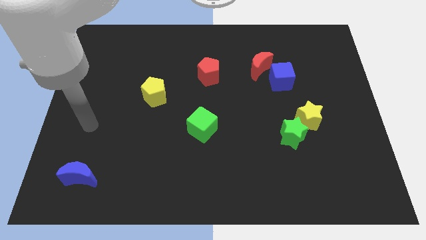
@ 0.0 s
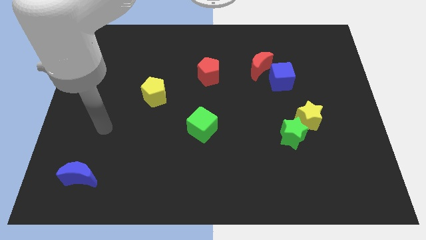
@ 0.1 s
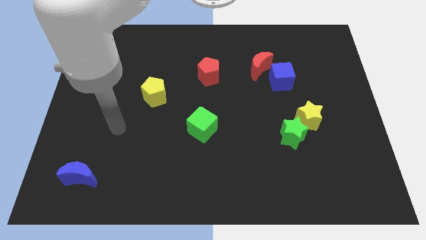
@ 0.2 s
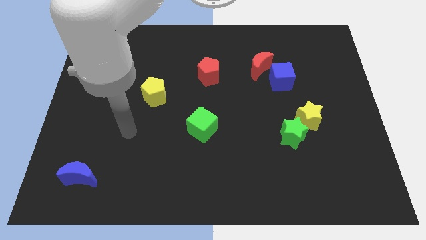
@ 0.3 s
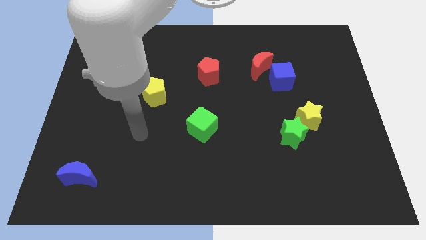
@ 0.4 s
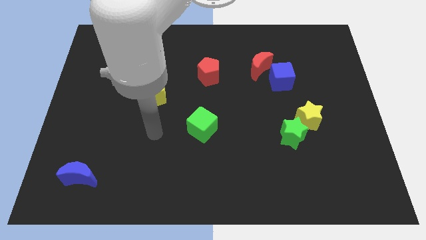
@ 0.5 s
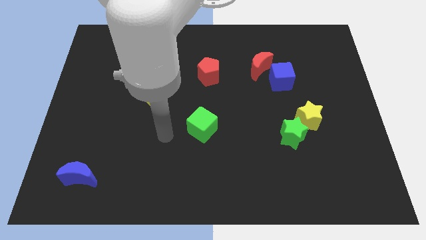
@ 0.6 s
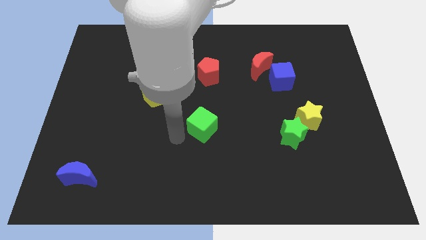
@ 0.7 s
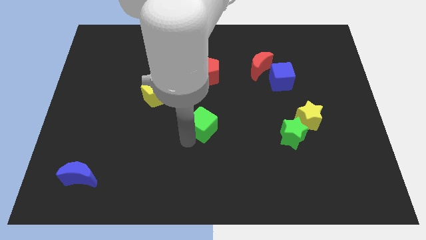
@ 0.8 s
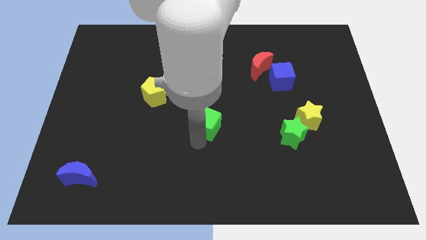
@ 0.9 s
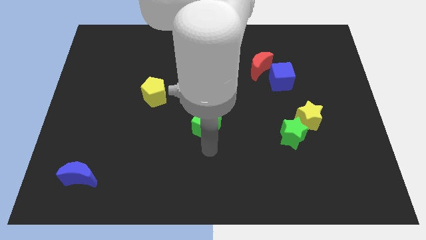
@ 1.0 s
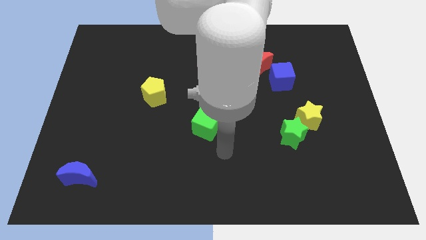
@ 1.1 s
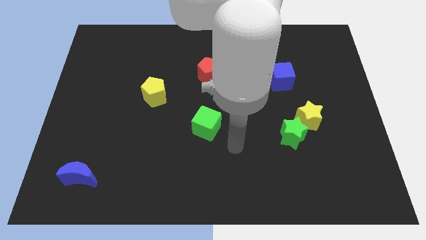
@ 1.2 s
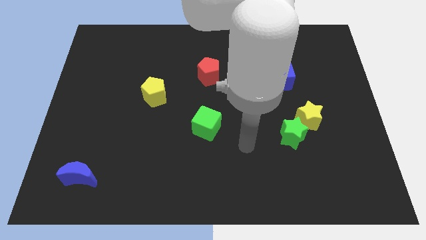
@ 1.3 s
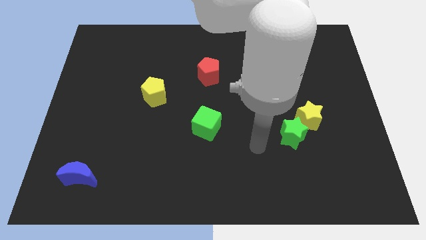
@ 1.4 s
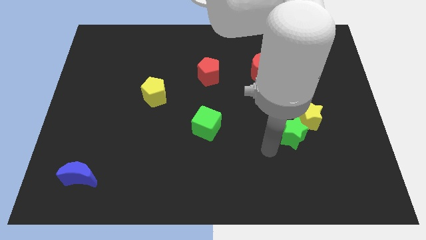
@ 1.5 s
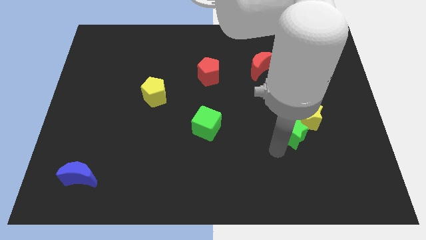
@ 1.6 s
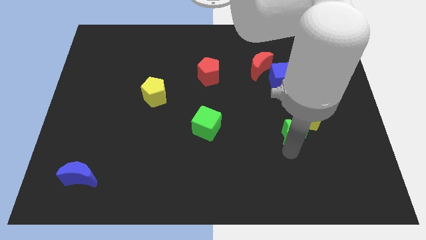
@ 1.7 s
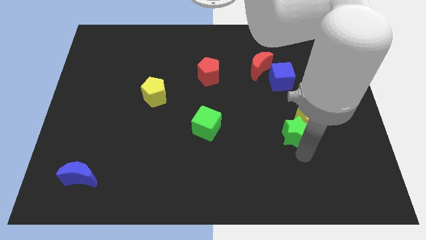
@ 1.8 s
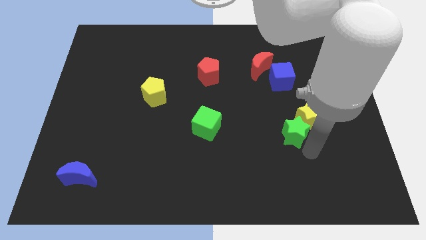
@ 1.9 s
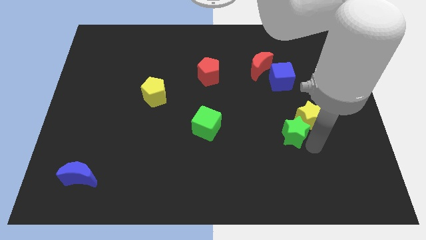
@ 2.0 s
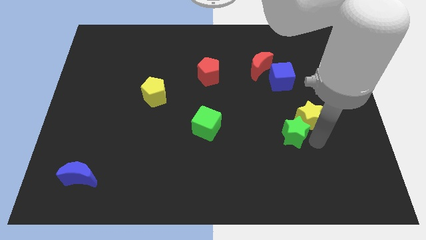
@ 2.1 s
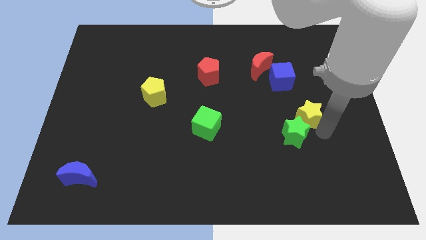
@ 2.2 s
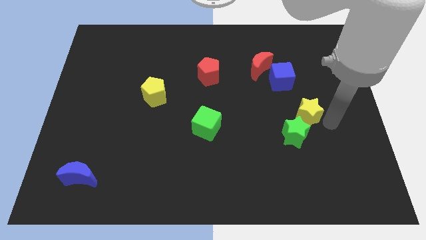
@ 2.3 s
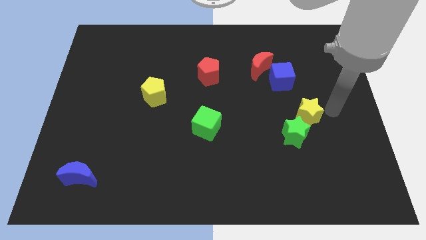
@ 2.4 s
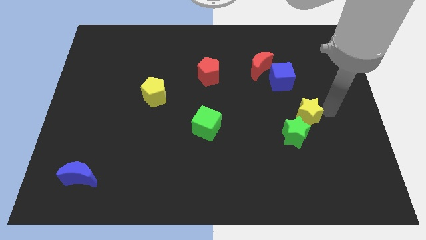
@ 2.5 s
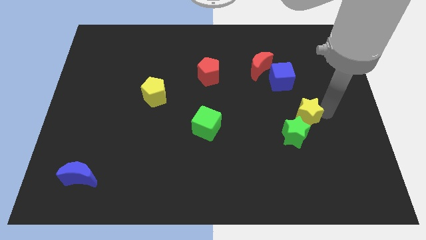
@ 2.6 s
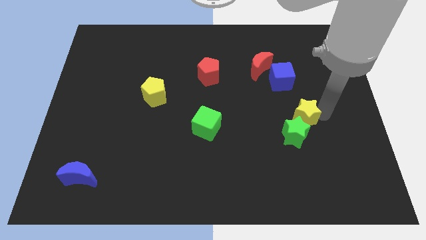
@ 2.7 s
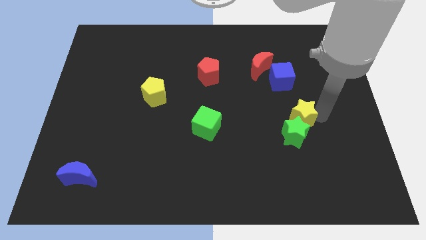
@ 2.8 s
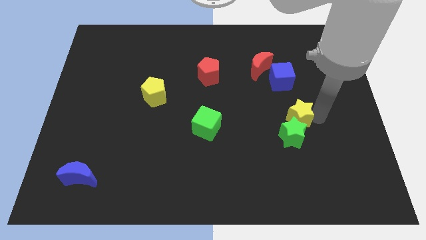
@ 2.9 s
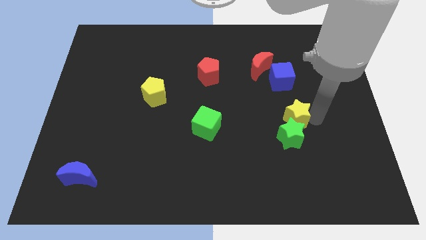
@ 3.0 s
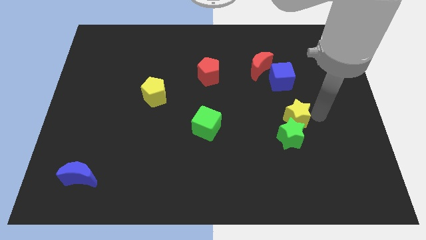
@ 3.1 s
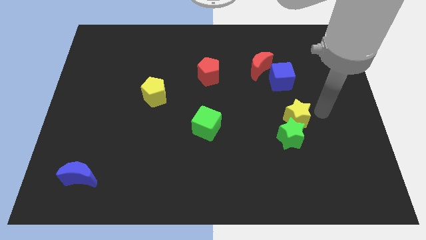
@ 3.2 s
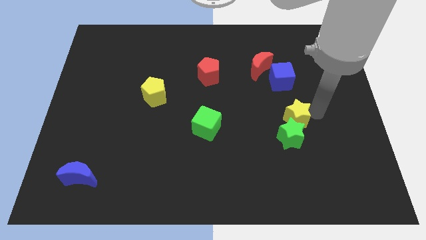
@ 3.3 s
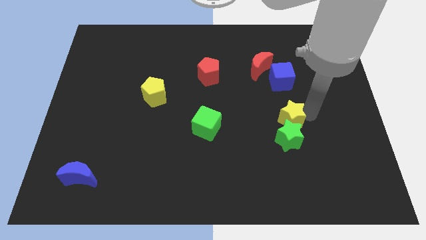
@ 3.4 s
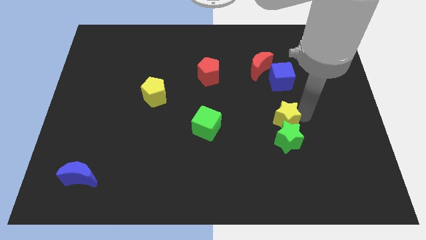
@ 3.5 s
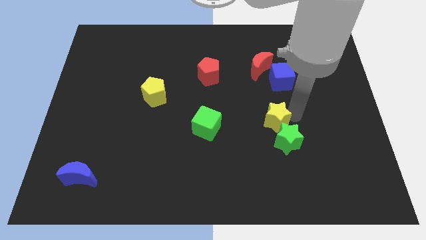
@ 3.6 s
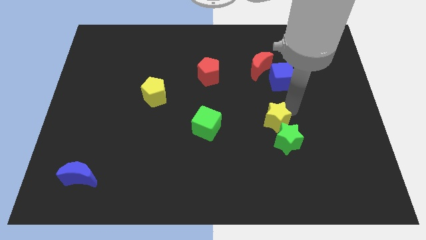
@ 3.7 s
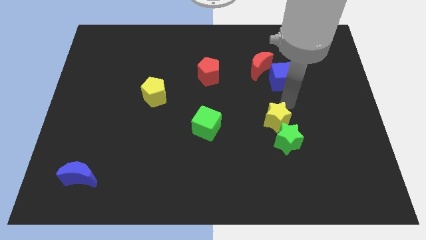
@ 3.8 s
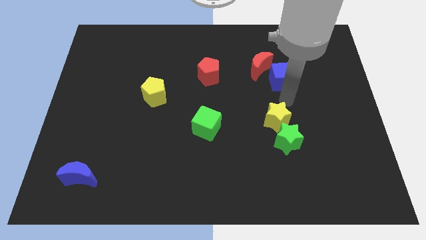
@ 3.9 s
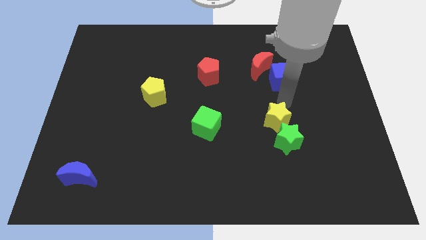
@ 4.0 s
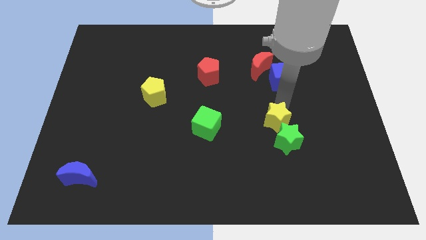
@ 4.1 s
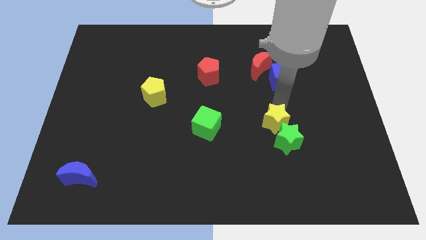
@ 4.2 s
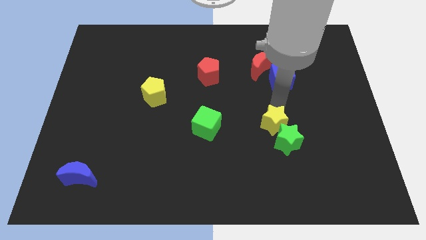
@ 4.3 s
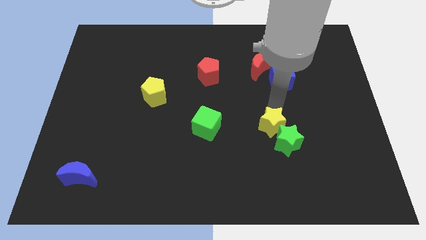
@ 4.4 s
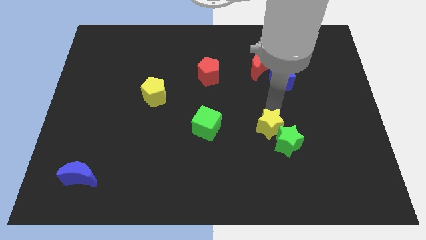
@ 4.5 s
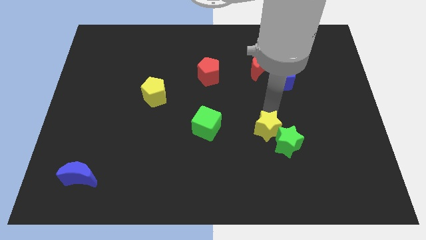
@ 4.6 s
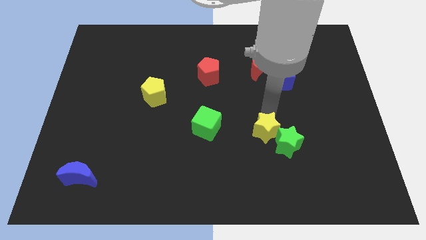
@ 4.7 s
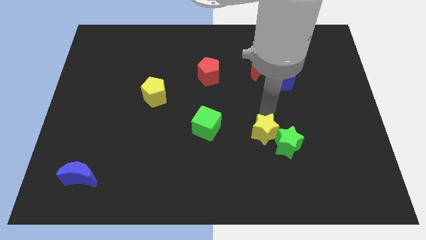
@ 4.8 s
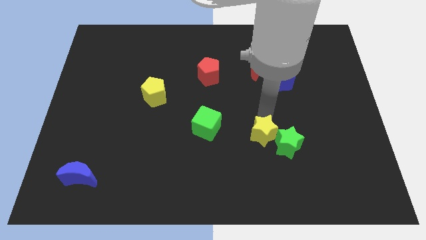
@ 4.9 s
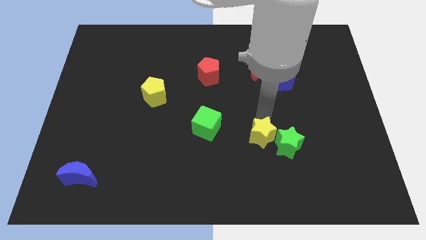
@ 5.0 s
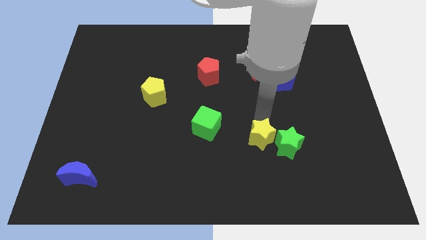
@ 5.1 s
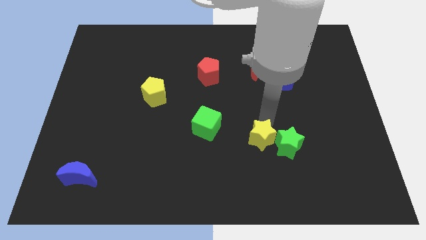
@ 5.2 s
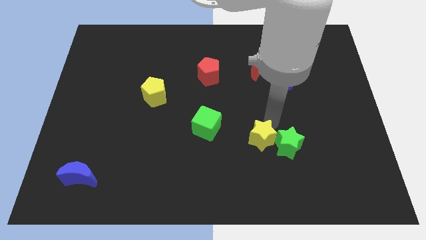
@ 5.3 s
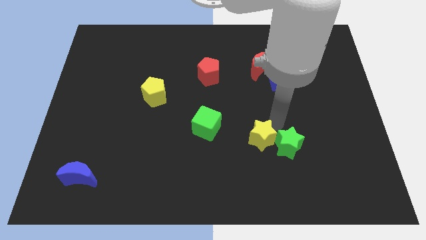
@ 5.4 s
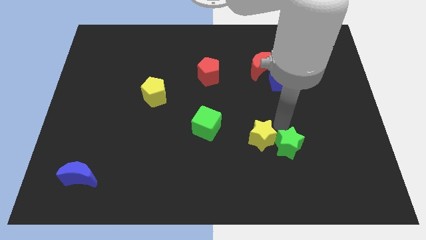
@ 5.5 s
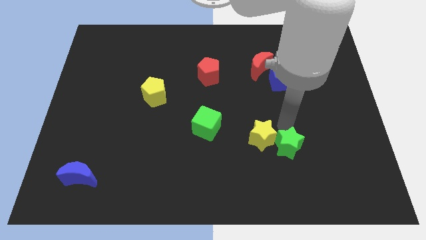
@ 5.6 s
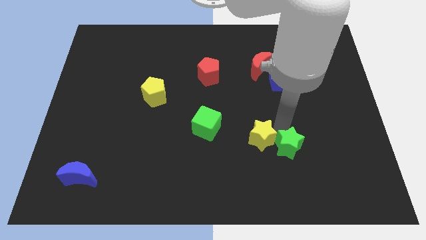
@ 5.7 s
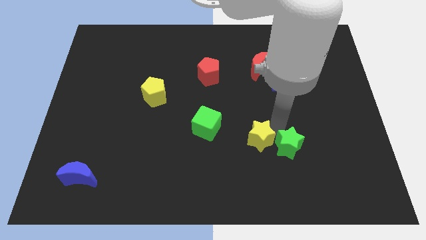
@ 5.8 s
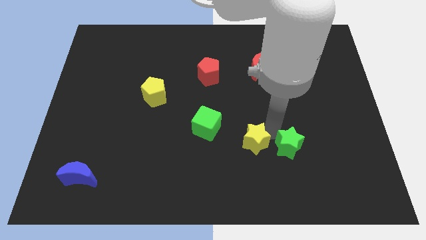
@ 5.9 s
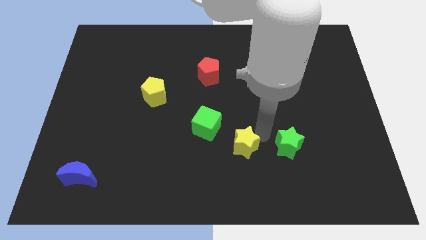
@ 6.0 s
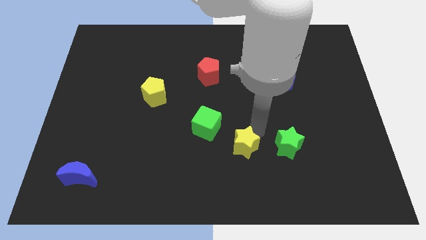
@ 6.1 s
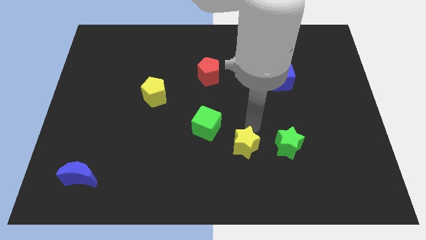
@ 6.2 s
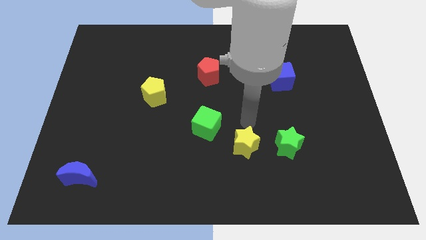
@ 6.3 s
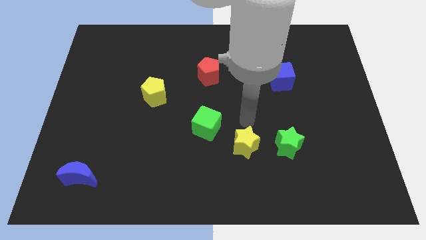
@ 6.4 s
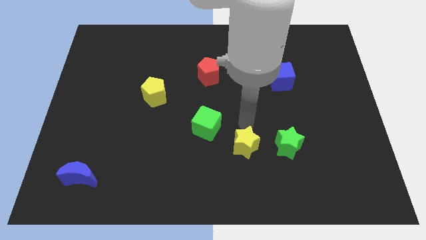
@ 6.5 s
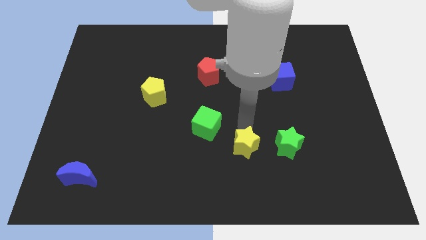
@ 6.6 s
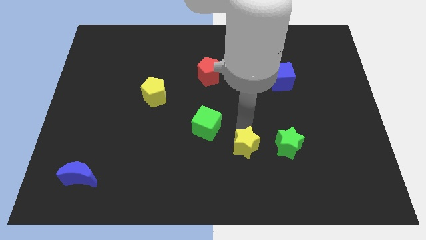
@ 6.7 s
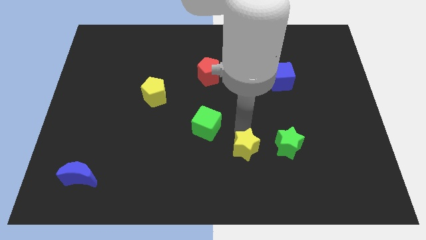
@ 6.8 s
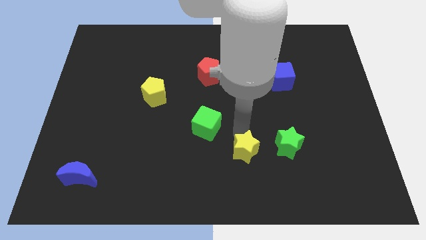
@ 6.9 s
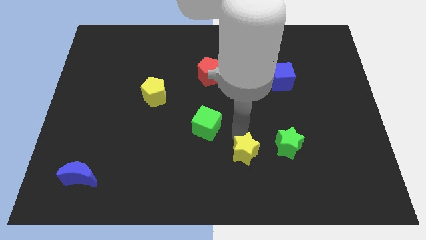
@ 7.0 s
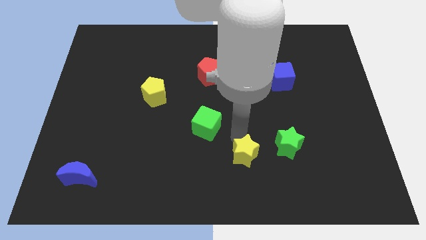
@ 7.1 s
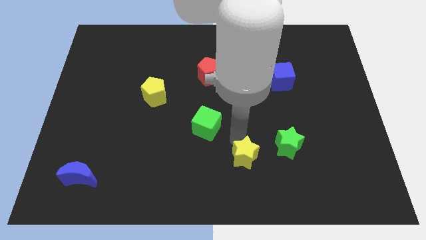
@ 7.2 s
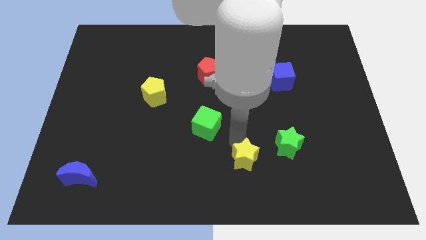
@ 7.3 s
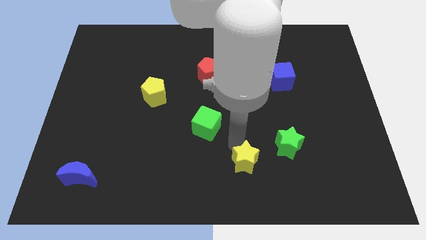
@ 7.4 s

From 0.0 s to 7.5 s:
put the yellow star to the bottom side
